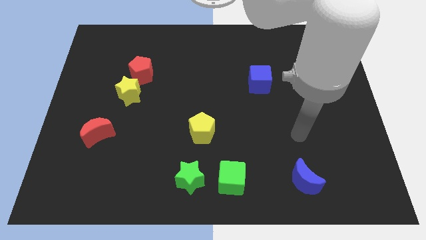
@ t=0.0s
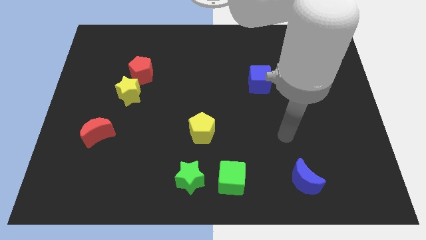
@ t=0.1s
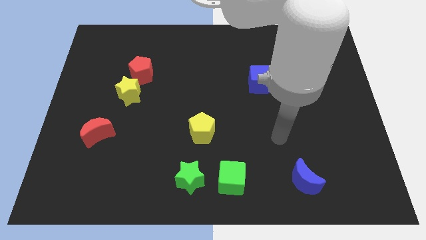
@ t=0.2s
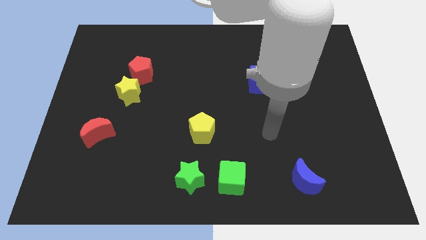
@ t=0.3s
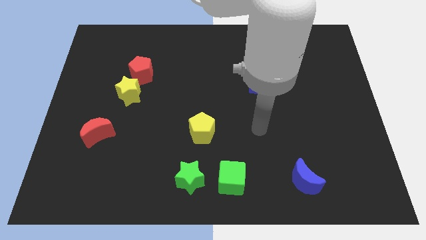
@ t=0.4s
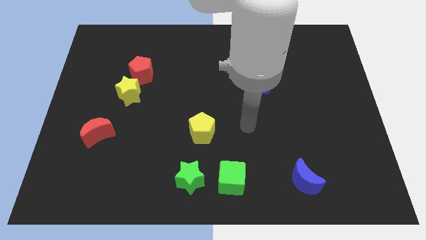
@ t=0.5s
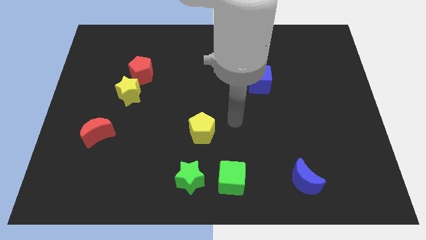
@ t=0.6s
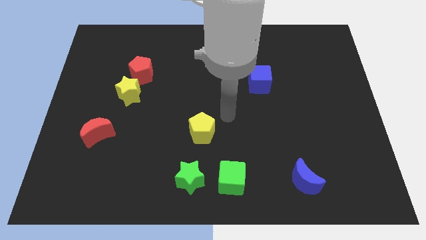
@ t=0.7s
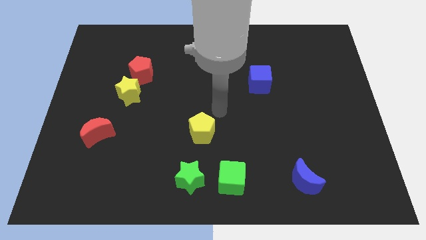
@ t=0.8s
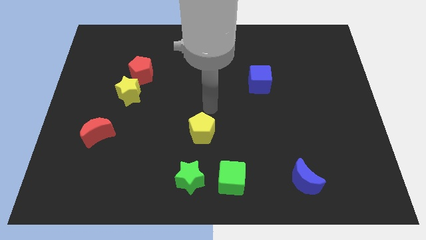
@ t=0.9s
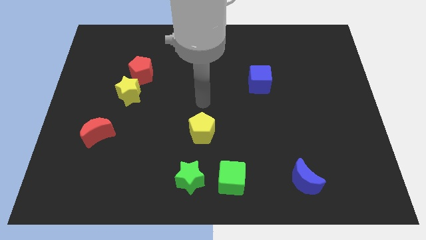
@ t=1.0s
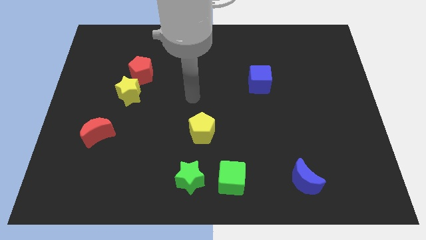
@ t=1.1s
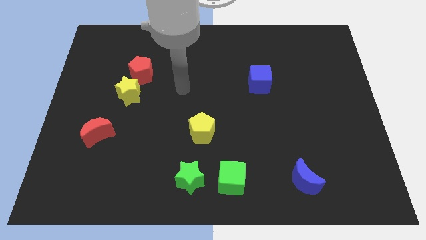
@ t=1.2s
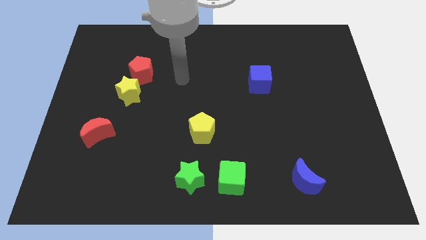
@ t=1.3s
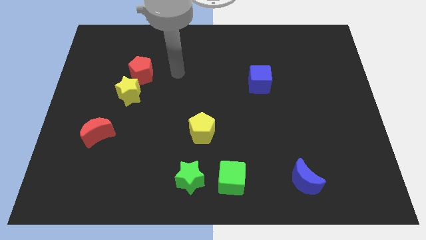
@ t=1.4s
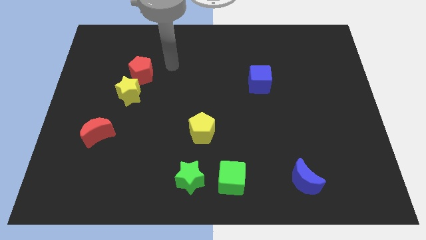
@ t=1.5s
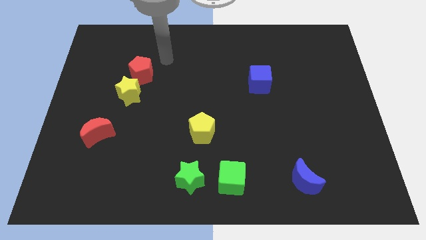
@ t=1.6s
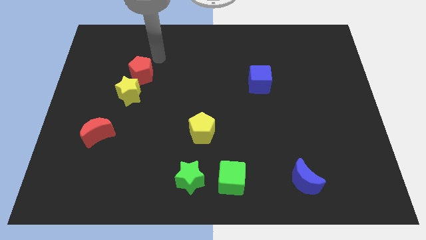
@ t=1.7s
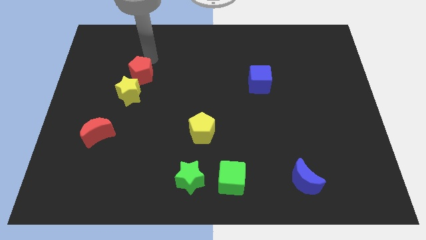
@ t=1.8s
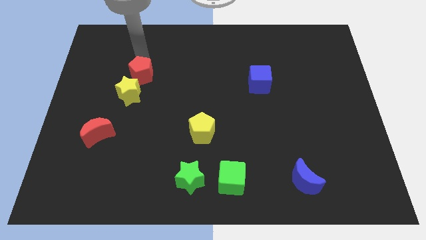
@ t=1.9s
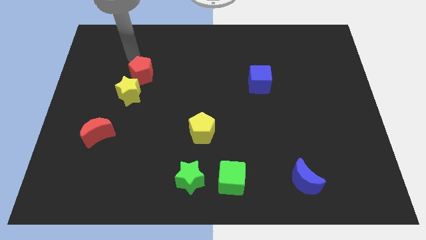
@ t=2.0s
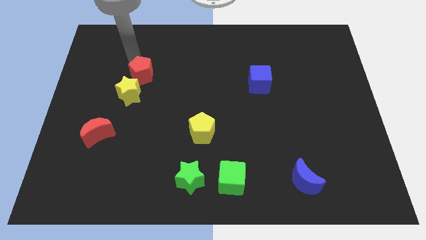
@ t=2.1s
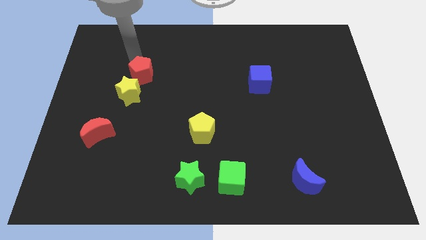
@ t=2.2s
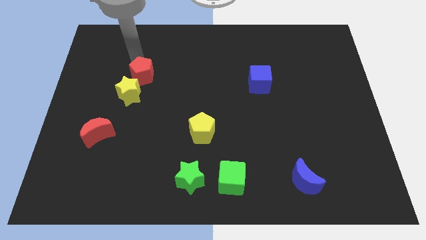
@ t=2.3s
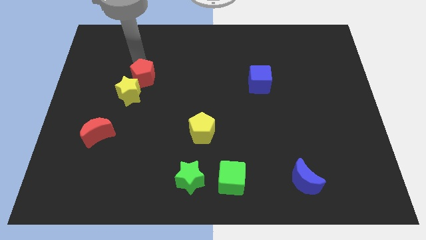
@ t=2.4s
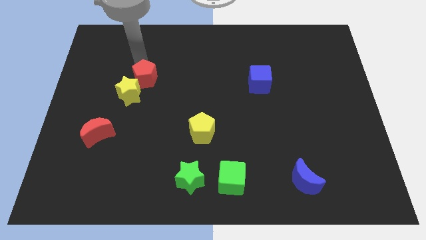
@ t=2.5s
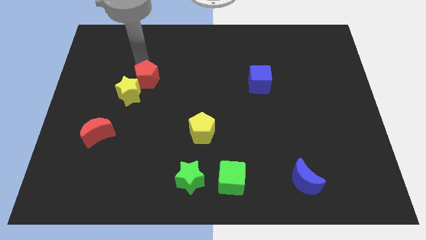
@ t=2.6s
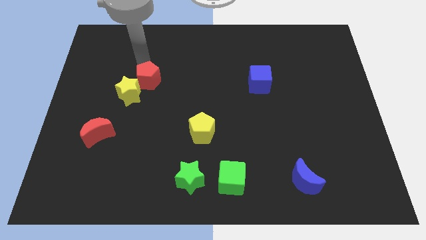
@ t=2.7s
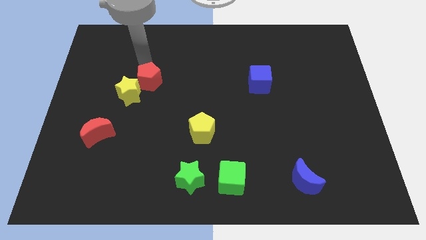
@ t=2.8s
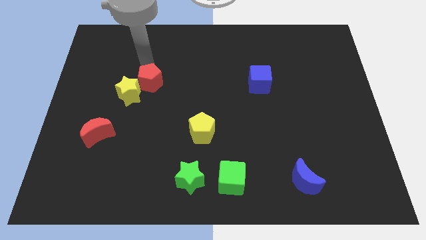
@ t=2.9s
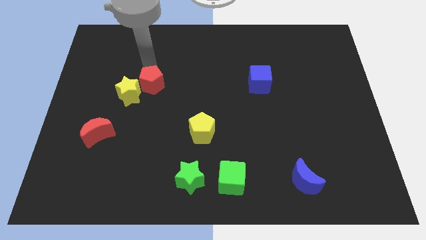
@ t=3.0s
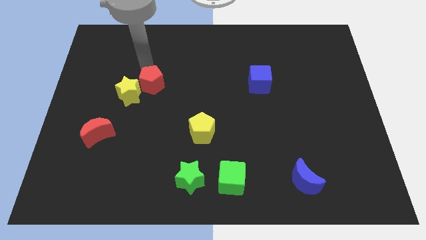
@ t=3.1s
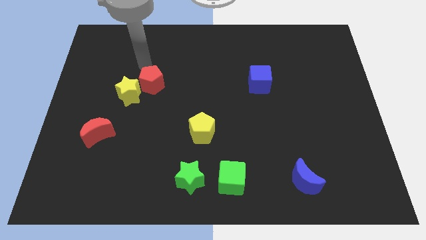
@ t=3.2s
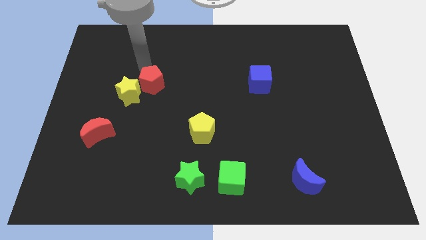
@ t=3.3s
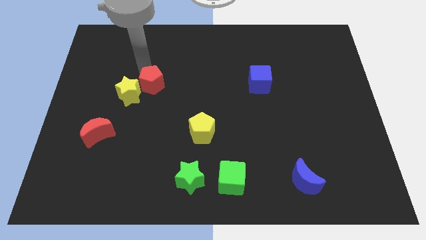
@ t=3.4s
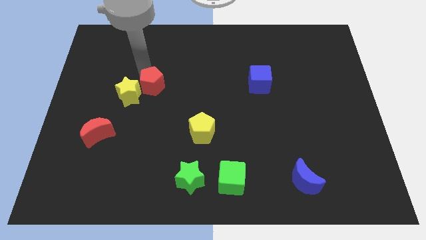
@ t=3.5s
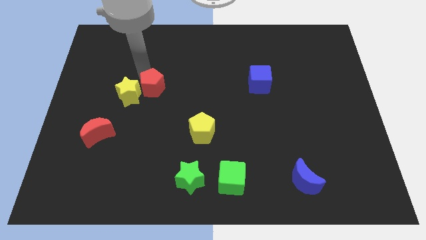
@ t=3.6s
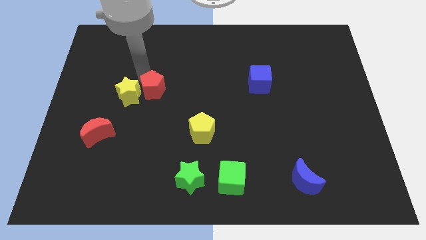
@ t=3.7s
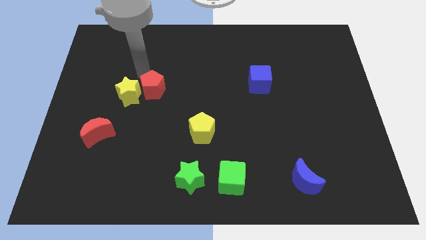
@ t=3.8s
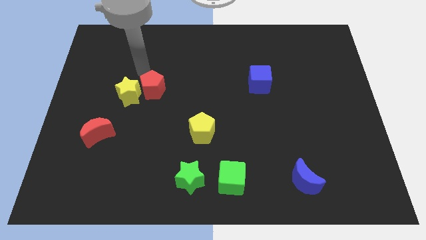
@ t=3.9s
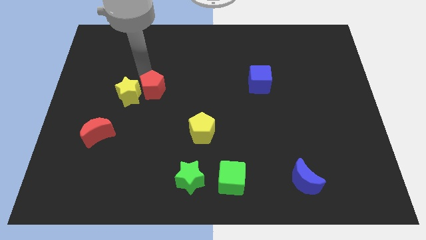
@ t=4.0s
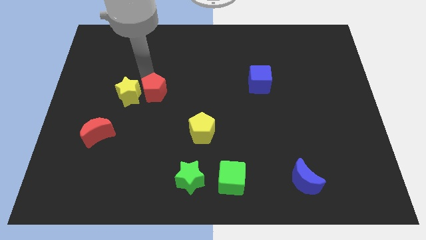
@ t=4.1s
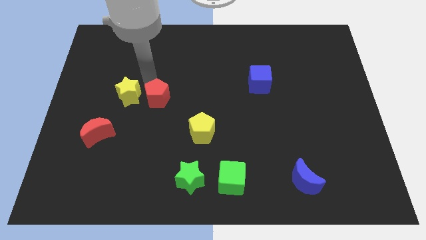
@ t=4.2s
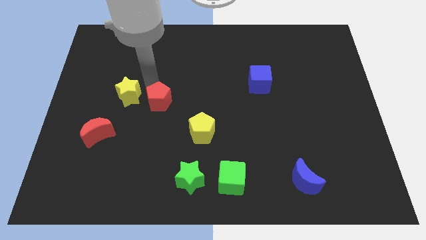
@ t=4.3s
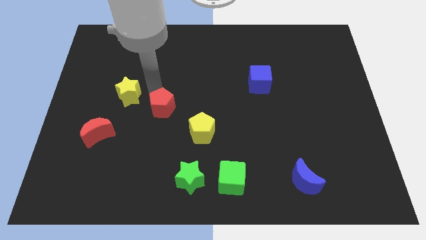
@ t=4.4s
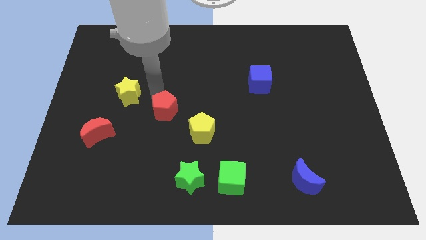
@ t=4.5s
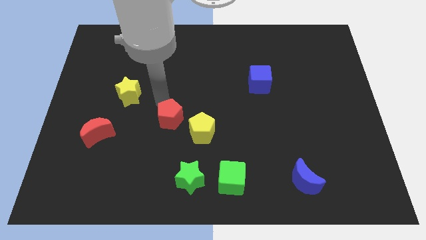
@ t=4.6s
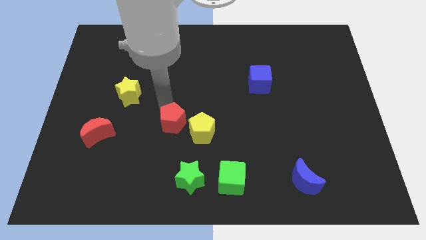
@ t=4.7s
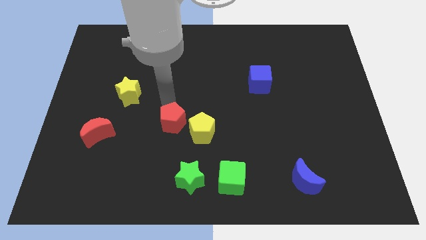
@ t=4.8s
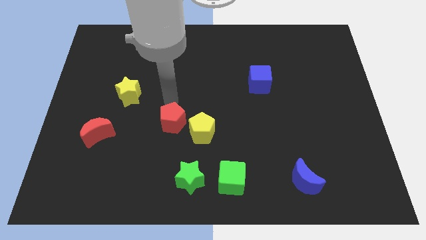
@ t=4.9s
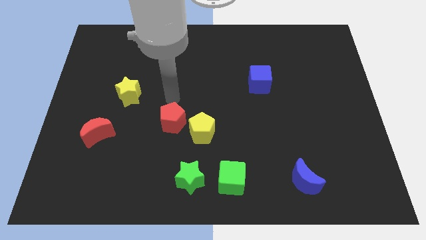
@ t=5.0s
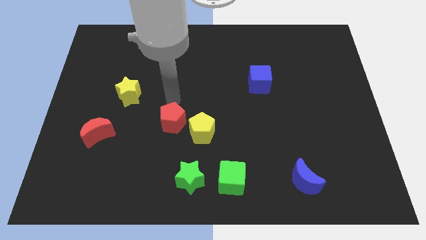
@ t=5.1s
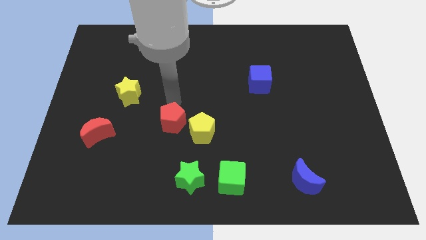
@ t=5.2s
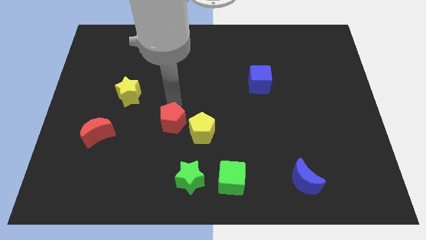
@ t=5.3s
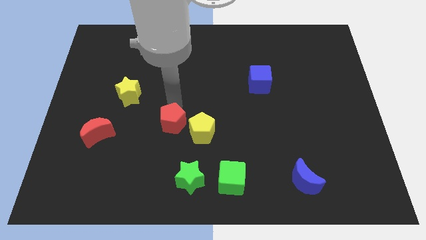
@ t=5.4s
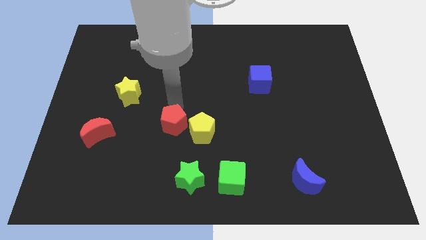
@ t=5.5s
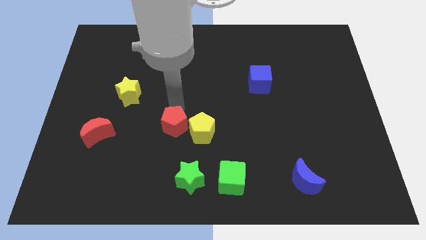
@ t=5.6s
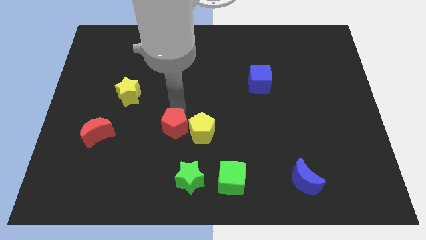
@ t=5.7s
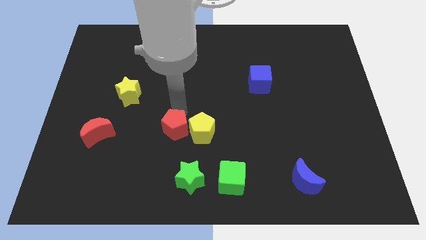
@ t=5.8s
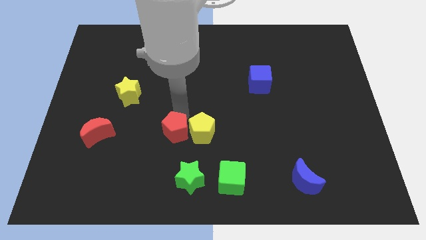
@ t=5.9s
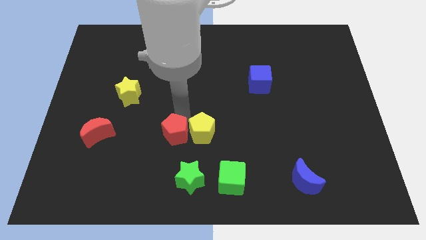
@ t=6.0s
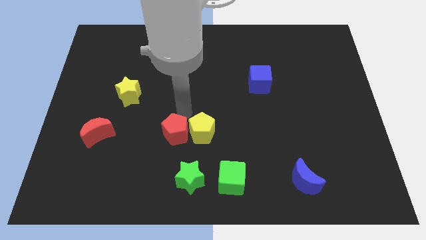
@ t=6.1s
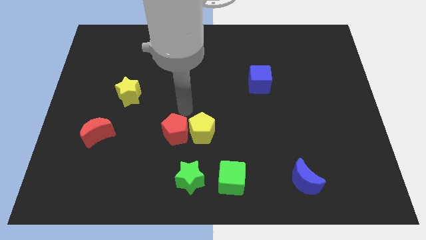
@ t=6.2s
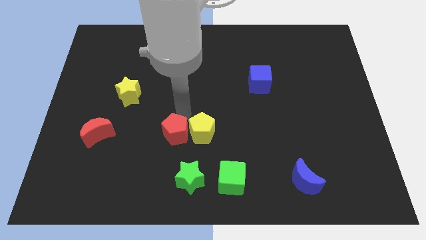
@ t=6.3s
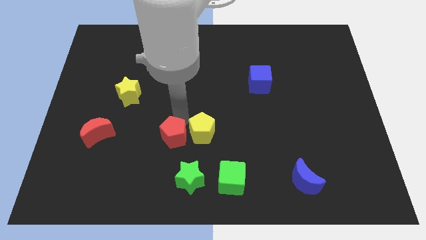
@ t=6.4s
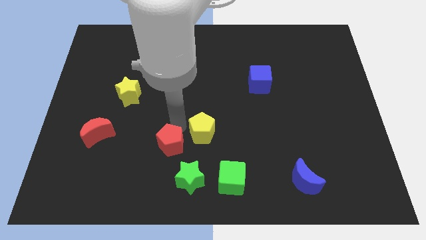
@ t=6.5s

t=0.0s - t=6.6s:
move the red pentagon to the top left side of the green star

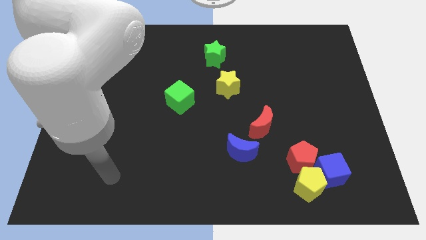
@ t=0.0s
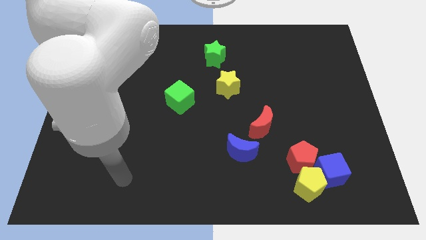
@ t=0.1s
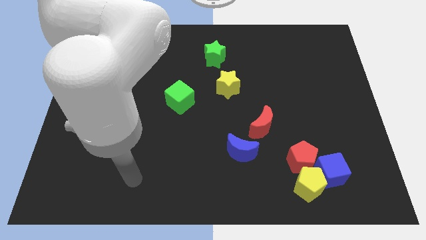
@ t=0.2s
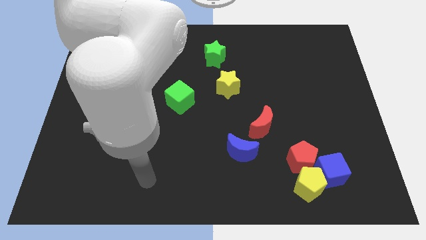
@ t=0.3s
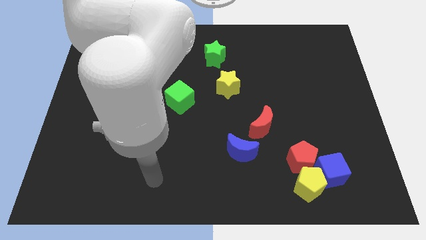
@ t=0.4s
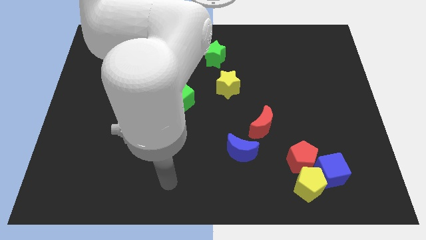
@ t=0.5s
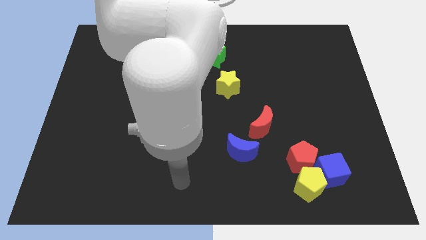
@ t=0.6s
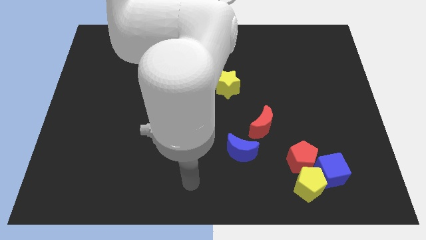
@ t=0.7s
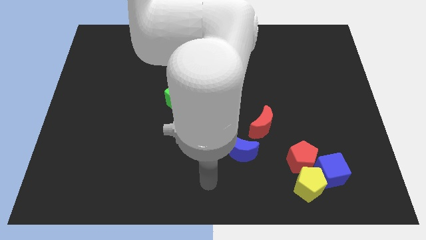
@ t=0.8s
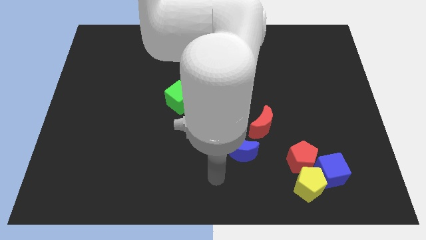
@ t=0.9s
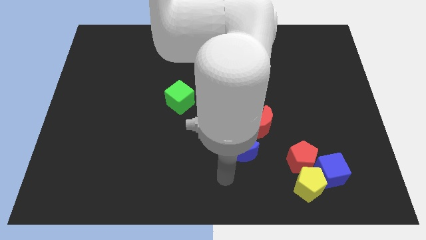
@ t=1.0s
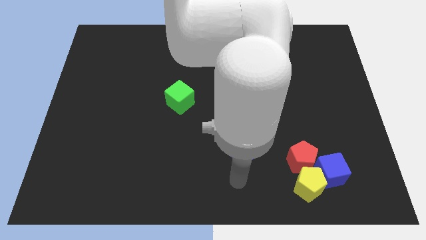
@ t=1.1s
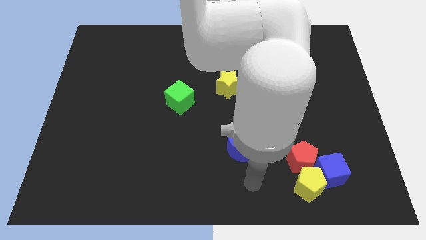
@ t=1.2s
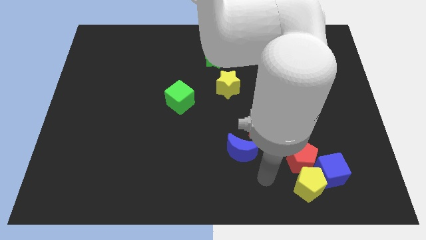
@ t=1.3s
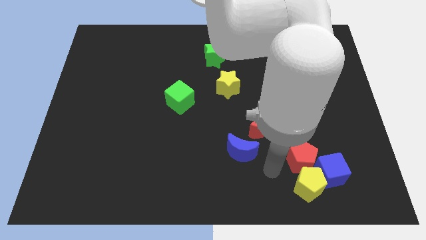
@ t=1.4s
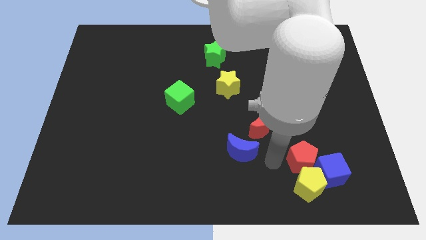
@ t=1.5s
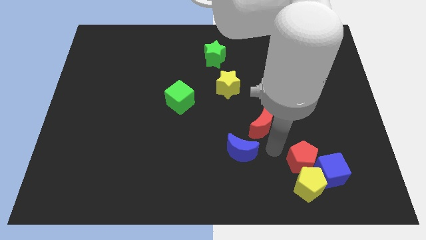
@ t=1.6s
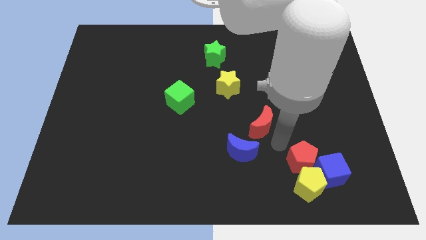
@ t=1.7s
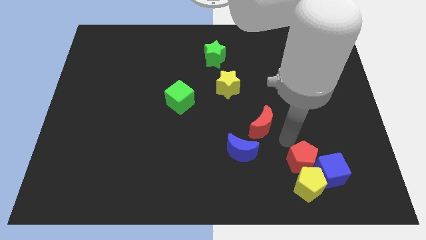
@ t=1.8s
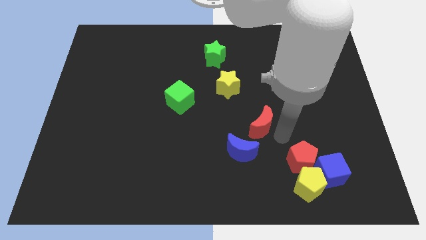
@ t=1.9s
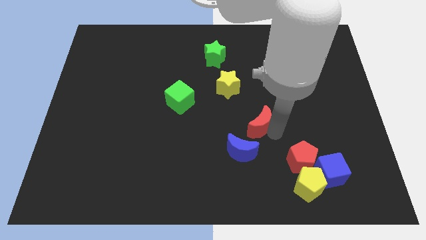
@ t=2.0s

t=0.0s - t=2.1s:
slide the red moon to the top of the blue moon
